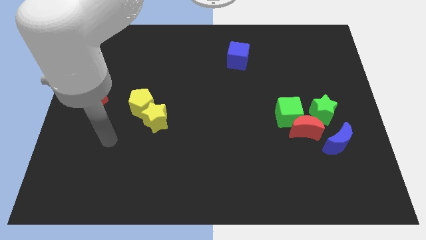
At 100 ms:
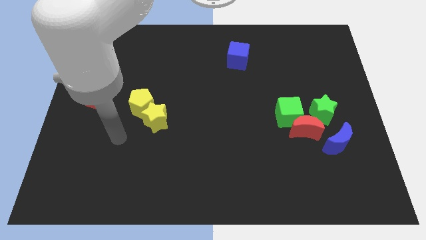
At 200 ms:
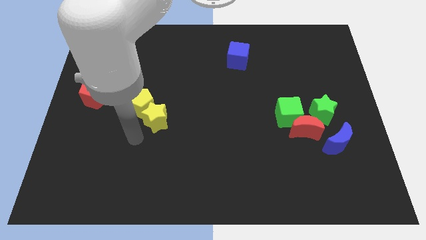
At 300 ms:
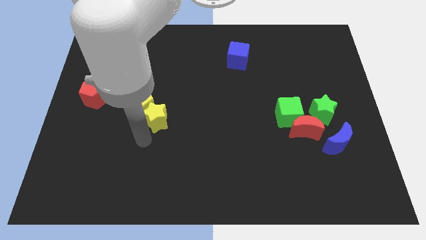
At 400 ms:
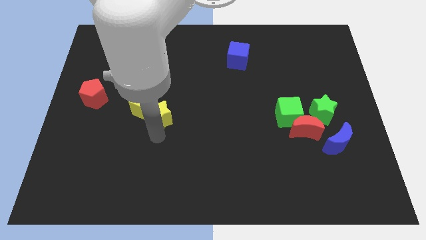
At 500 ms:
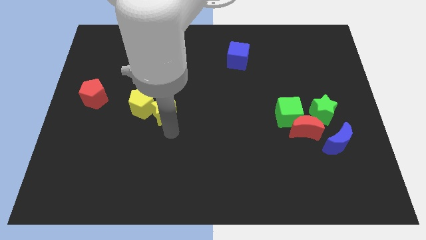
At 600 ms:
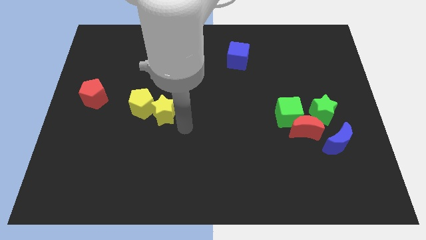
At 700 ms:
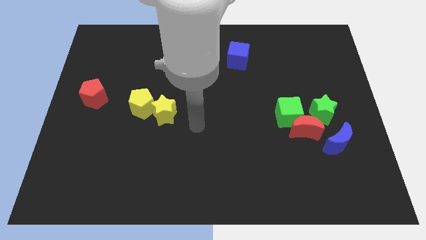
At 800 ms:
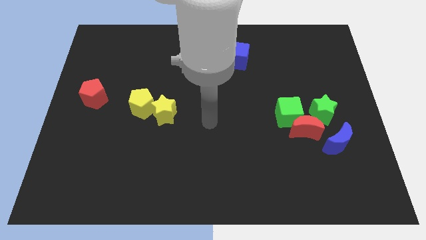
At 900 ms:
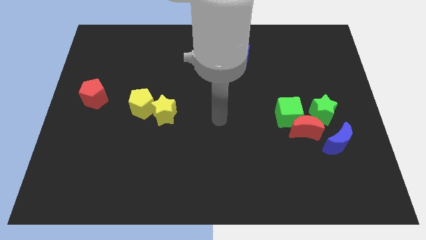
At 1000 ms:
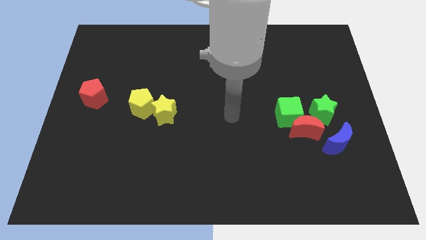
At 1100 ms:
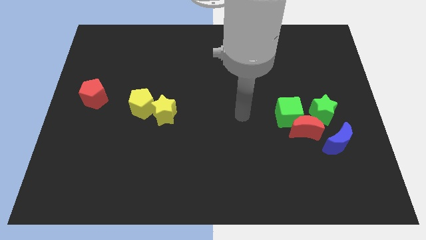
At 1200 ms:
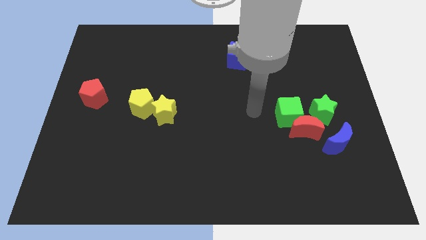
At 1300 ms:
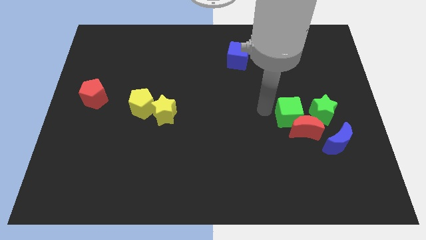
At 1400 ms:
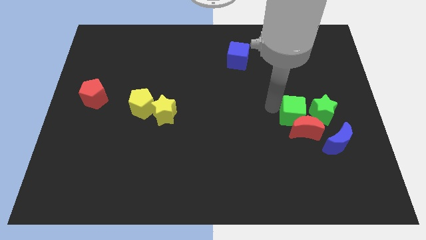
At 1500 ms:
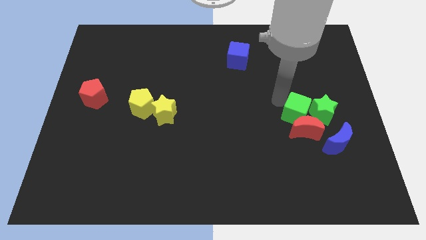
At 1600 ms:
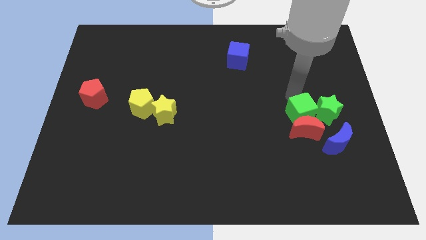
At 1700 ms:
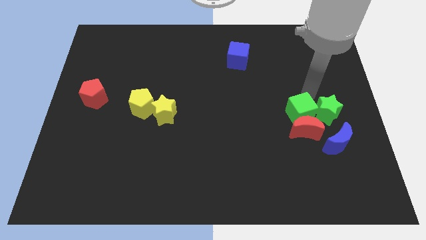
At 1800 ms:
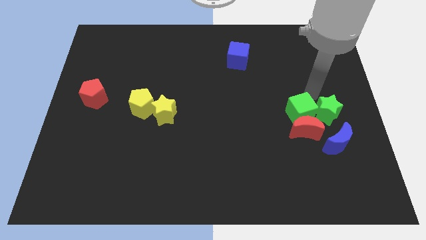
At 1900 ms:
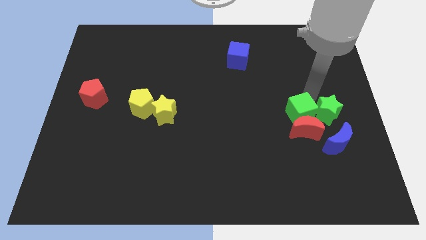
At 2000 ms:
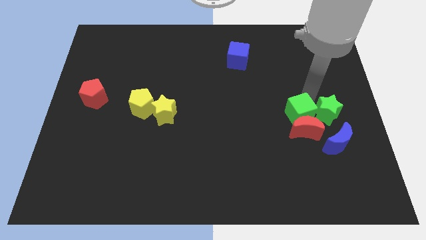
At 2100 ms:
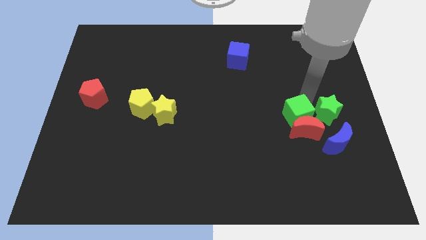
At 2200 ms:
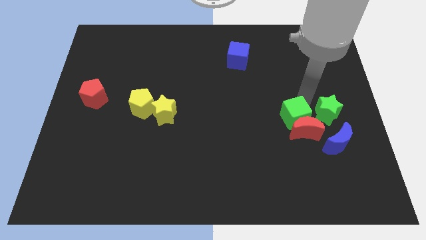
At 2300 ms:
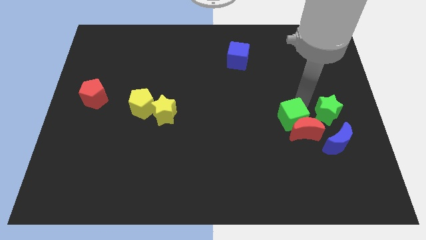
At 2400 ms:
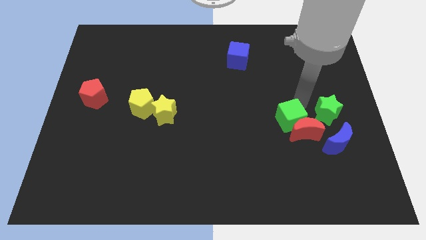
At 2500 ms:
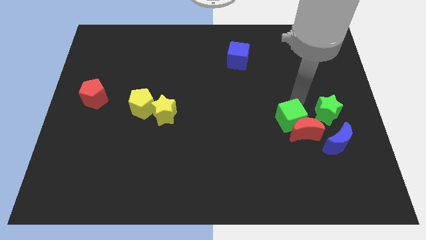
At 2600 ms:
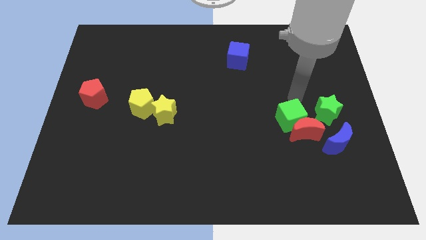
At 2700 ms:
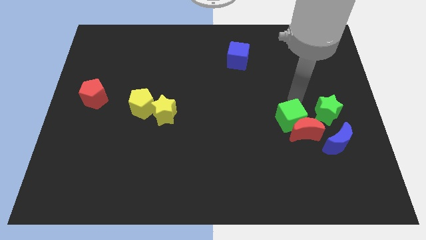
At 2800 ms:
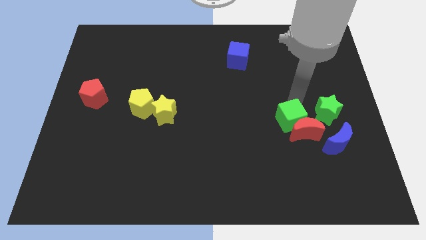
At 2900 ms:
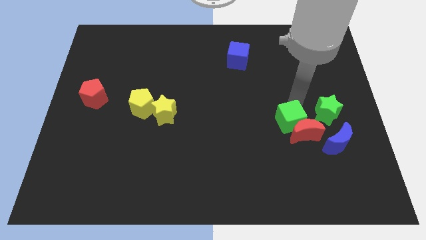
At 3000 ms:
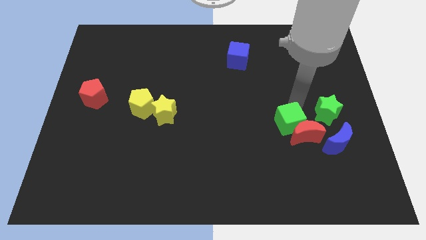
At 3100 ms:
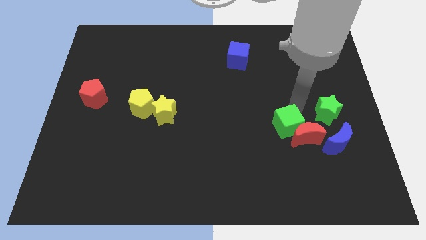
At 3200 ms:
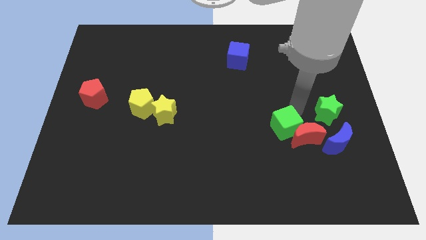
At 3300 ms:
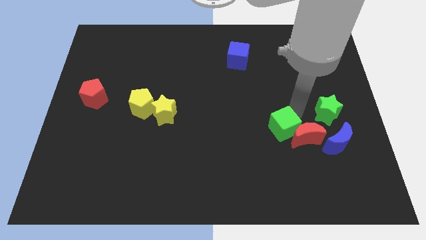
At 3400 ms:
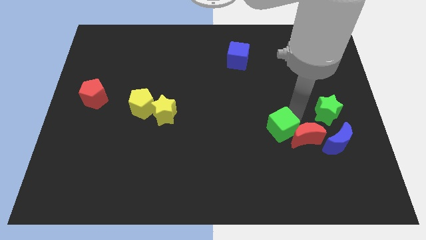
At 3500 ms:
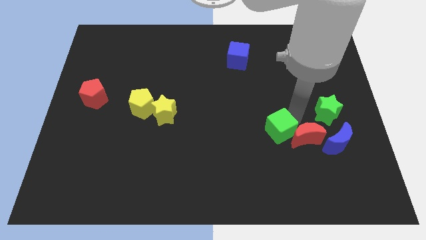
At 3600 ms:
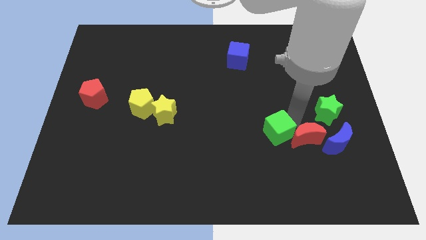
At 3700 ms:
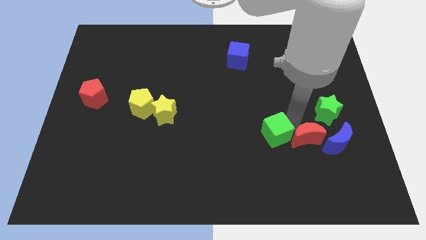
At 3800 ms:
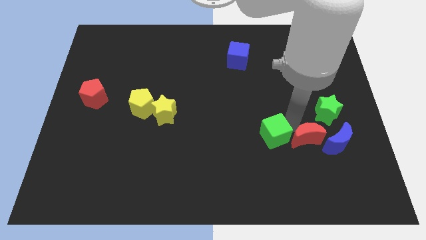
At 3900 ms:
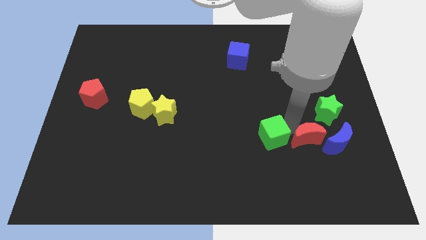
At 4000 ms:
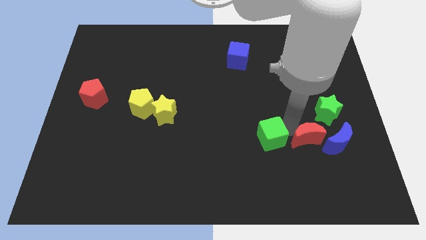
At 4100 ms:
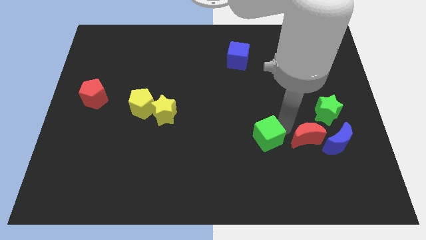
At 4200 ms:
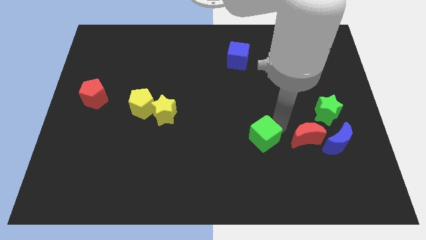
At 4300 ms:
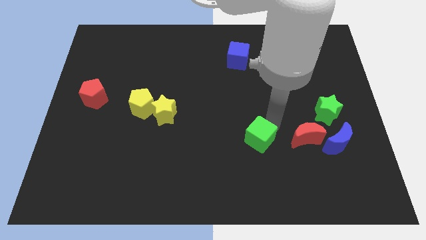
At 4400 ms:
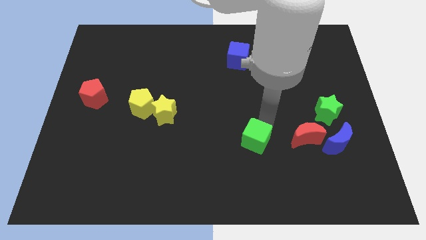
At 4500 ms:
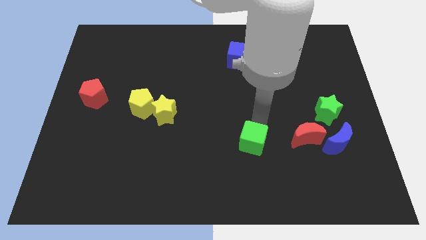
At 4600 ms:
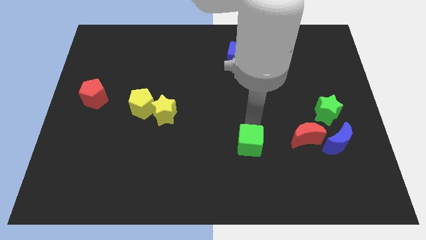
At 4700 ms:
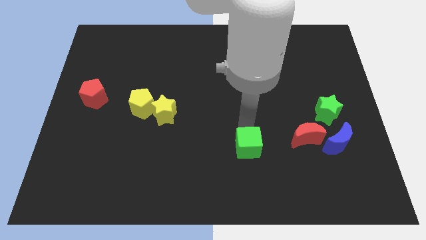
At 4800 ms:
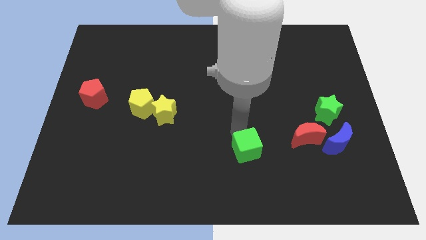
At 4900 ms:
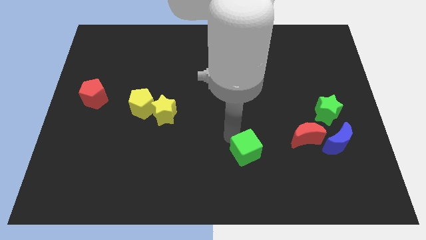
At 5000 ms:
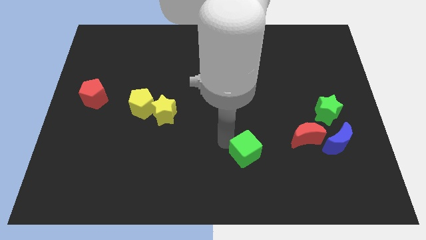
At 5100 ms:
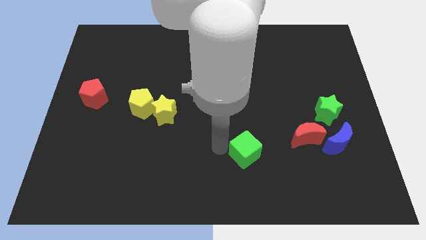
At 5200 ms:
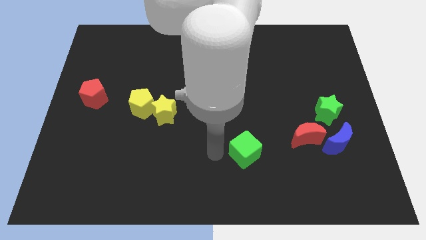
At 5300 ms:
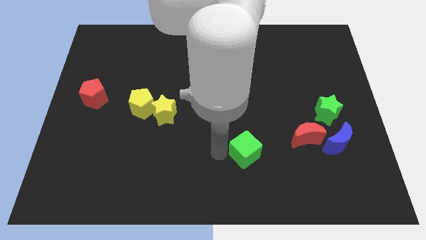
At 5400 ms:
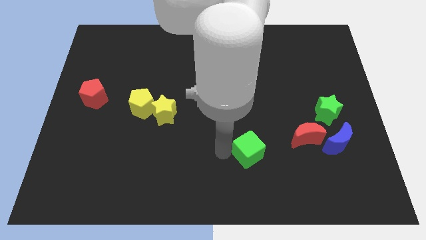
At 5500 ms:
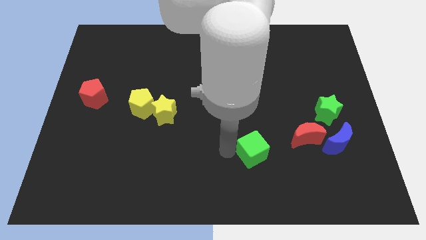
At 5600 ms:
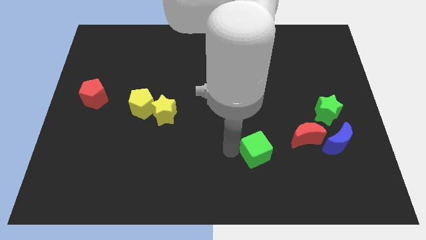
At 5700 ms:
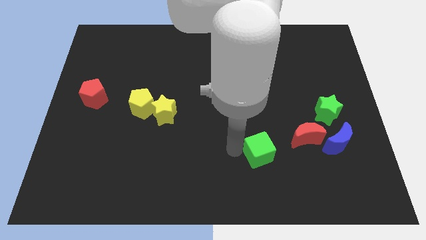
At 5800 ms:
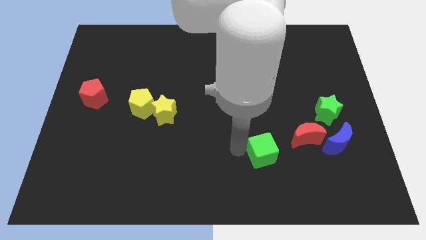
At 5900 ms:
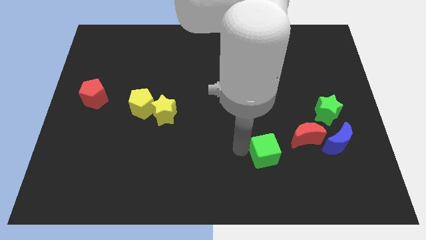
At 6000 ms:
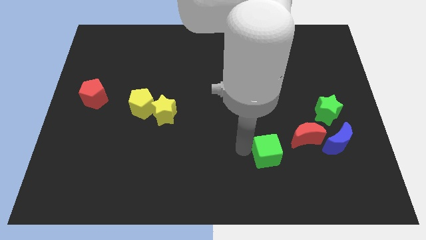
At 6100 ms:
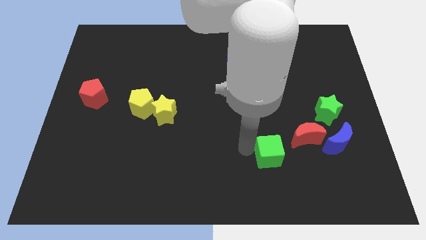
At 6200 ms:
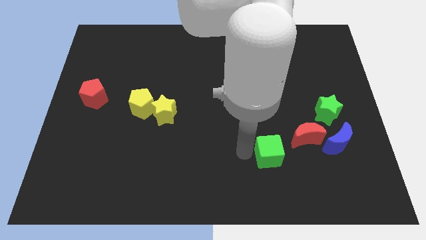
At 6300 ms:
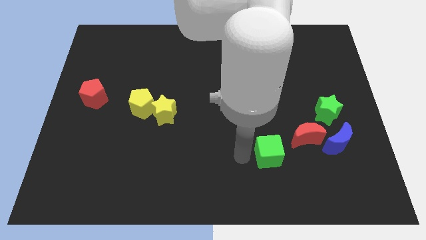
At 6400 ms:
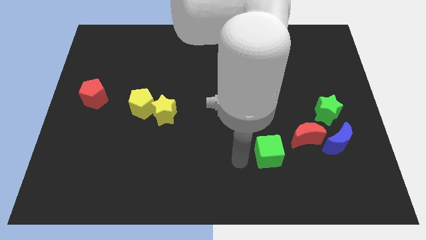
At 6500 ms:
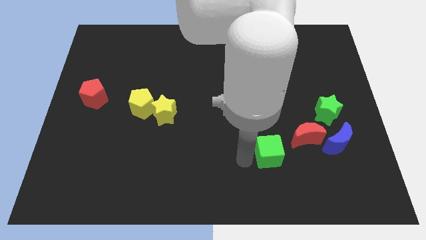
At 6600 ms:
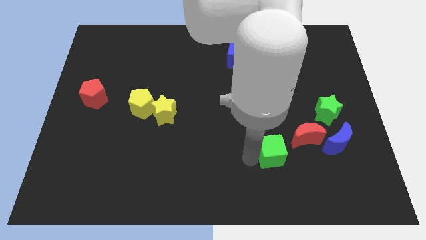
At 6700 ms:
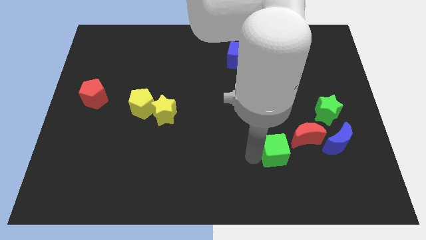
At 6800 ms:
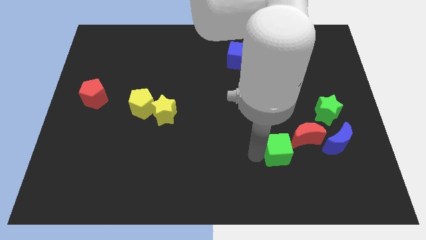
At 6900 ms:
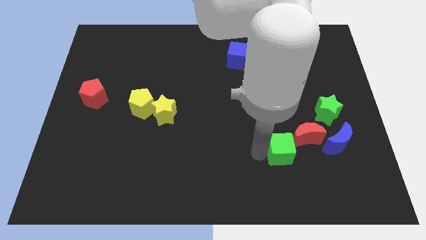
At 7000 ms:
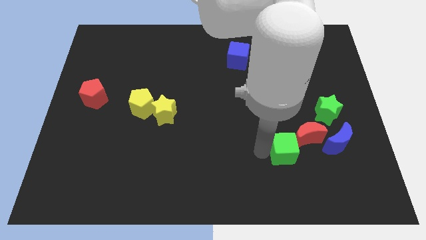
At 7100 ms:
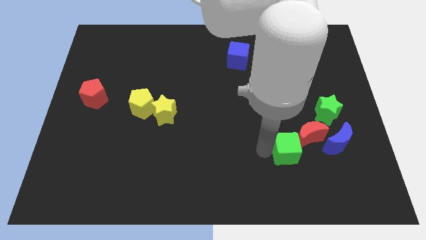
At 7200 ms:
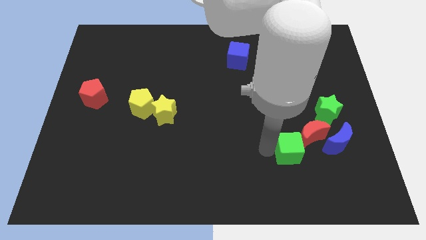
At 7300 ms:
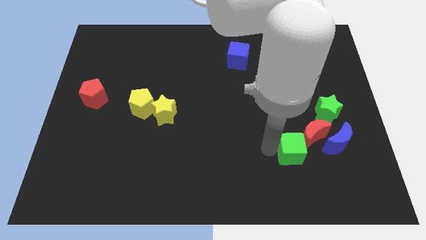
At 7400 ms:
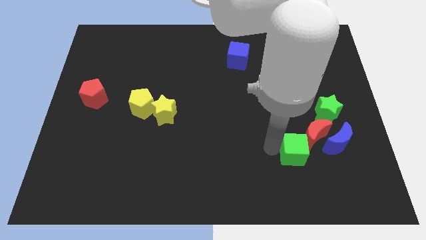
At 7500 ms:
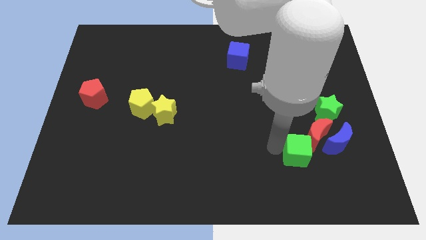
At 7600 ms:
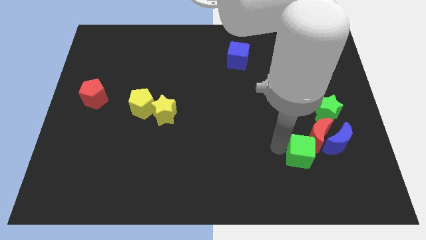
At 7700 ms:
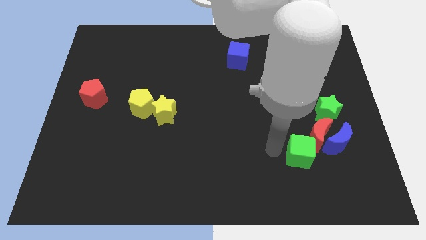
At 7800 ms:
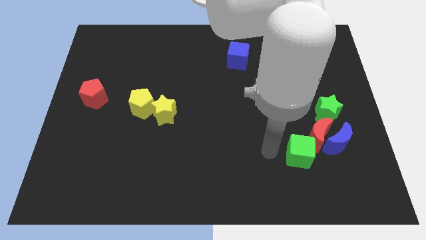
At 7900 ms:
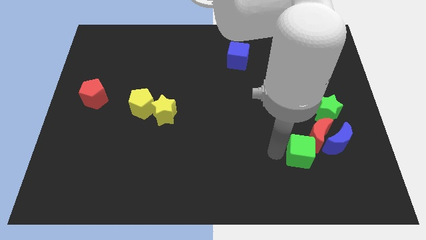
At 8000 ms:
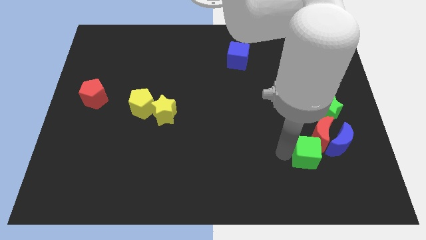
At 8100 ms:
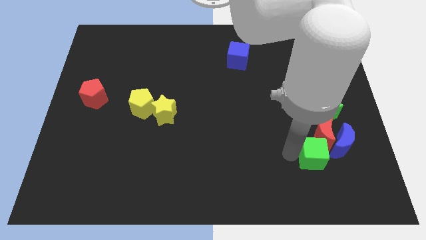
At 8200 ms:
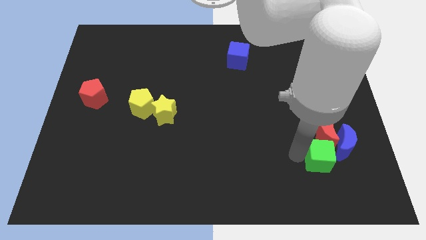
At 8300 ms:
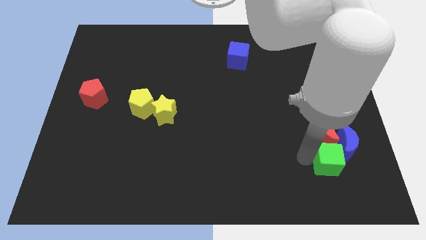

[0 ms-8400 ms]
push the green cube to the blue moon
